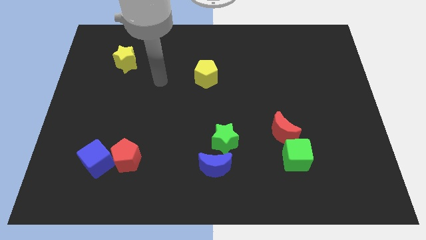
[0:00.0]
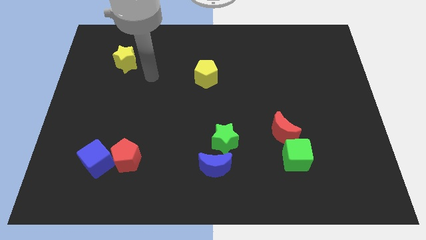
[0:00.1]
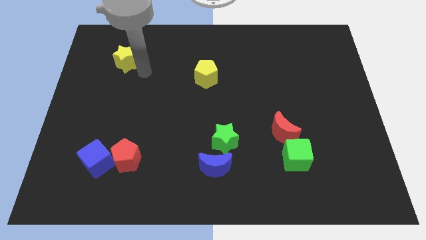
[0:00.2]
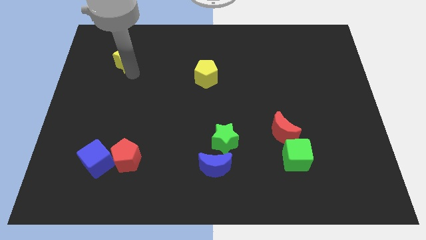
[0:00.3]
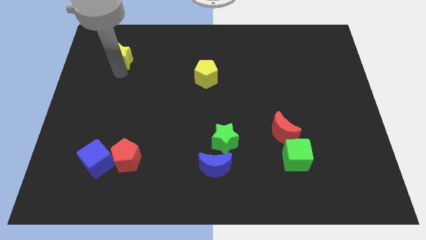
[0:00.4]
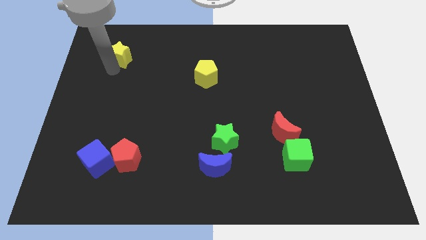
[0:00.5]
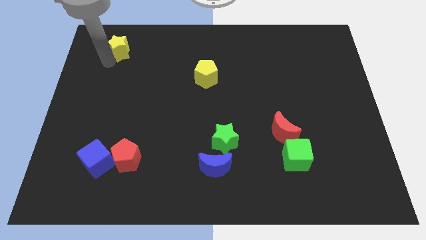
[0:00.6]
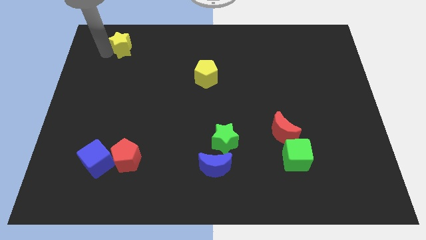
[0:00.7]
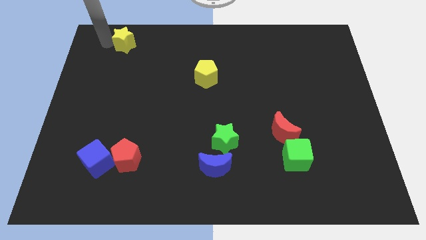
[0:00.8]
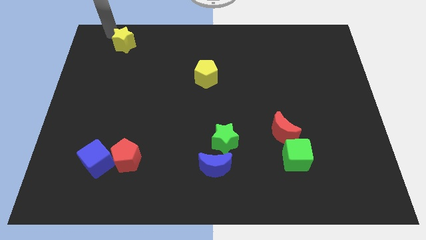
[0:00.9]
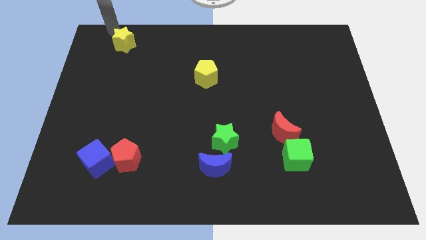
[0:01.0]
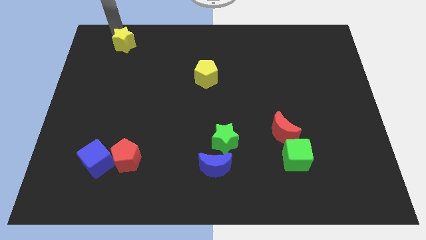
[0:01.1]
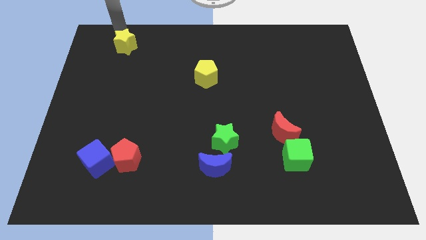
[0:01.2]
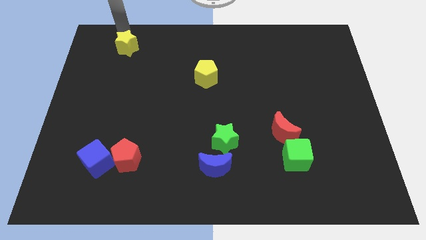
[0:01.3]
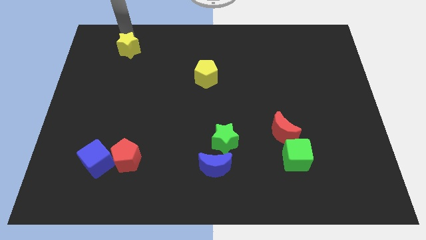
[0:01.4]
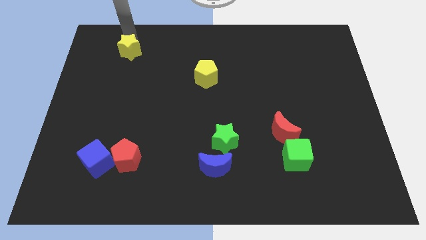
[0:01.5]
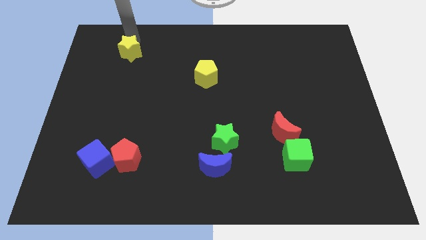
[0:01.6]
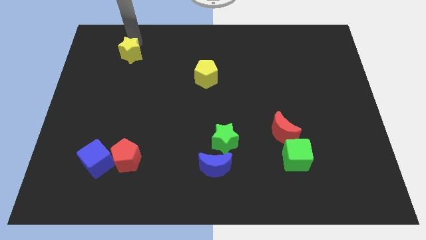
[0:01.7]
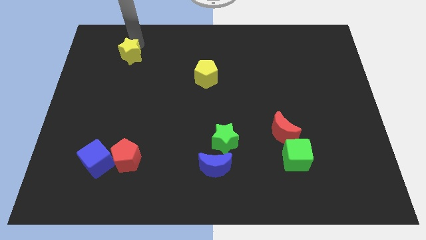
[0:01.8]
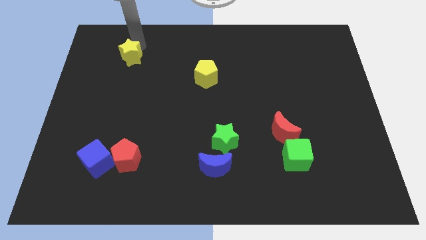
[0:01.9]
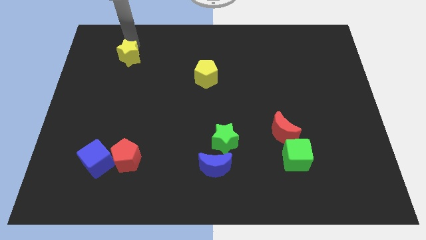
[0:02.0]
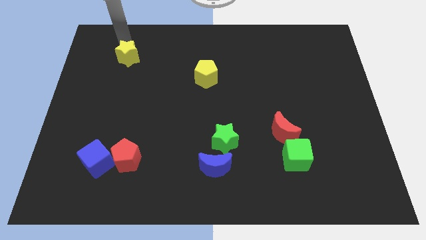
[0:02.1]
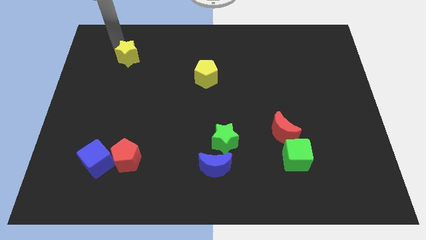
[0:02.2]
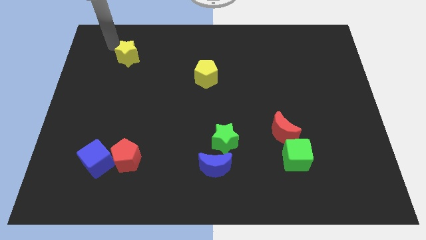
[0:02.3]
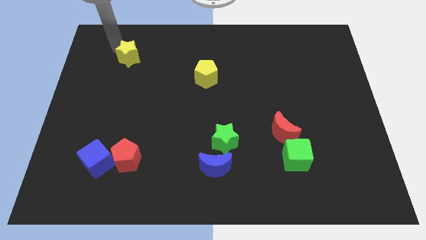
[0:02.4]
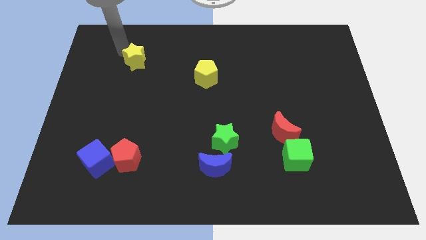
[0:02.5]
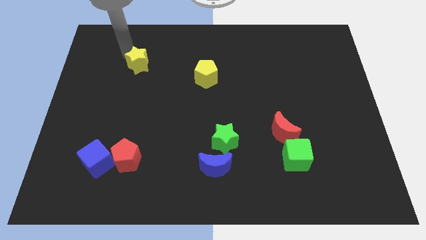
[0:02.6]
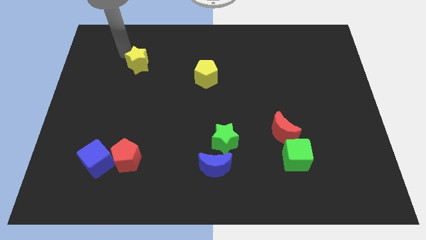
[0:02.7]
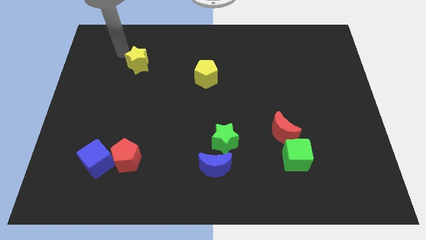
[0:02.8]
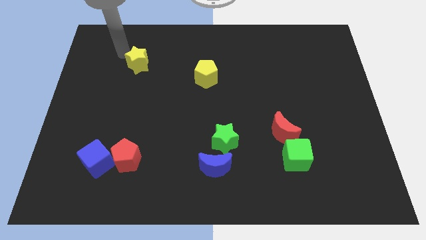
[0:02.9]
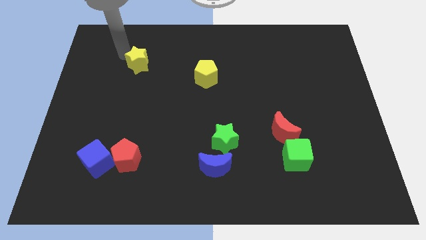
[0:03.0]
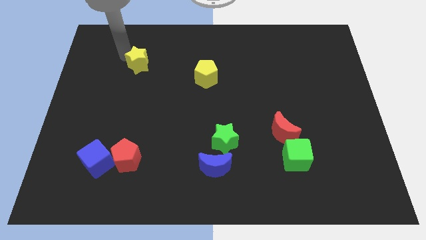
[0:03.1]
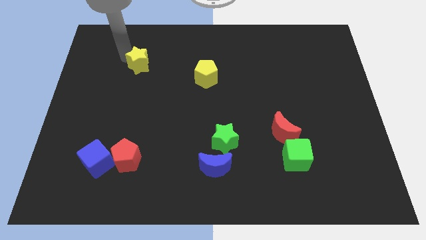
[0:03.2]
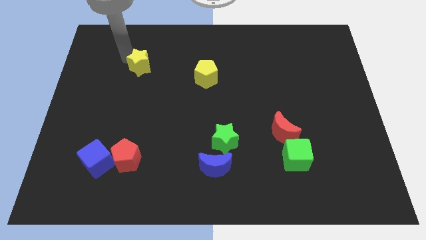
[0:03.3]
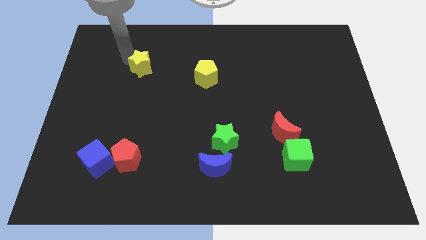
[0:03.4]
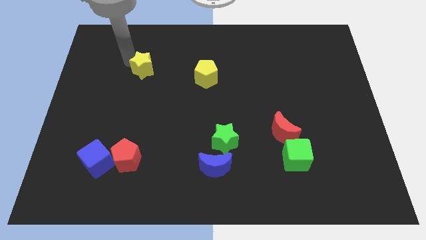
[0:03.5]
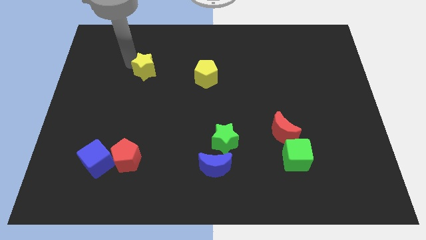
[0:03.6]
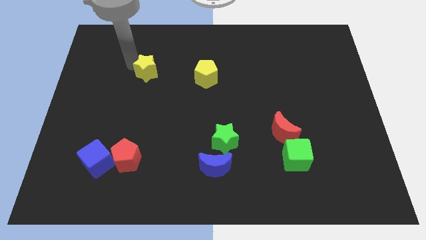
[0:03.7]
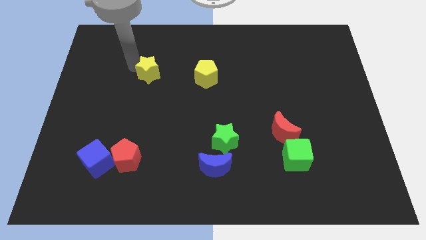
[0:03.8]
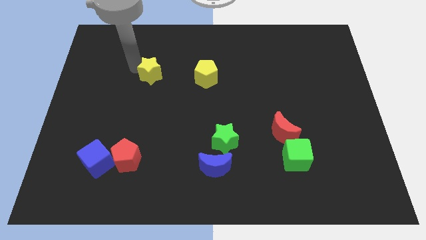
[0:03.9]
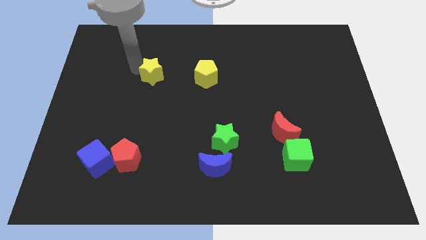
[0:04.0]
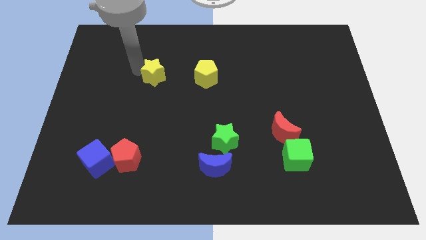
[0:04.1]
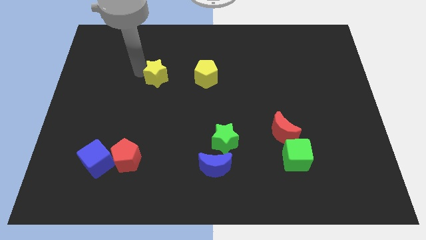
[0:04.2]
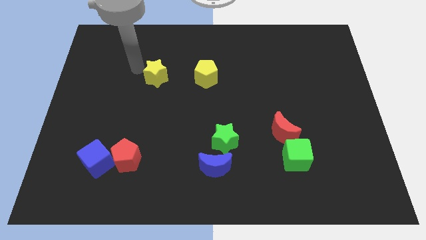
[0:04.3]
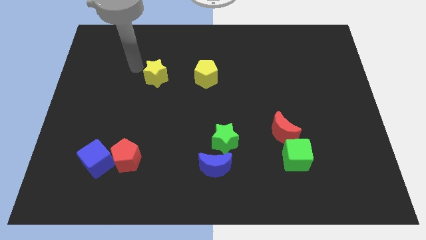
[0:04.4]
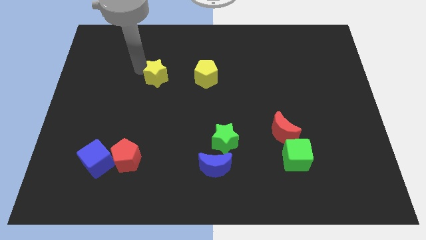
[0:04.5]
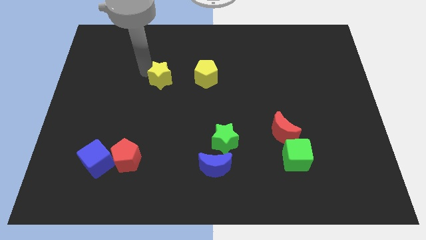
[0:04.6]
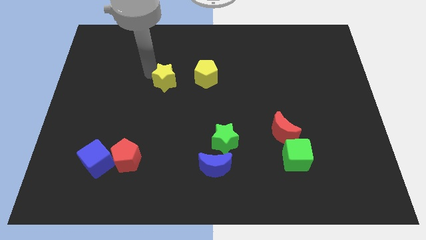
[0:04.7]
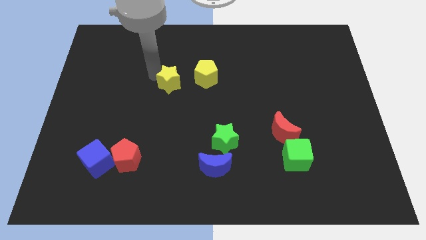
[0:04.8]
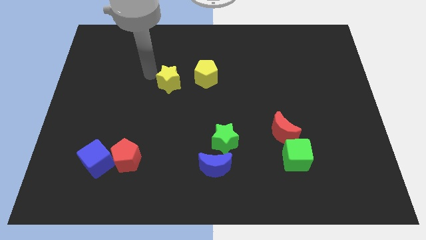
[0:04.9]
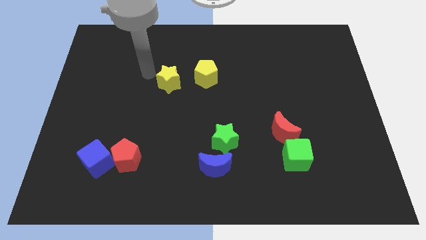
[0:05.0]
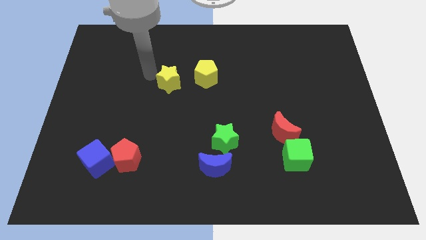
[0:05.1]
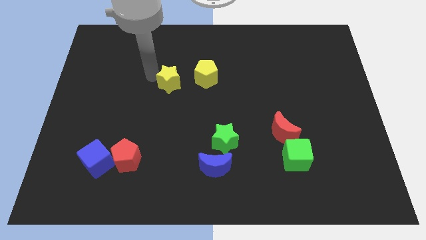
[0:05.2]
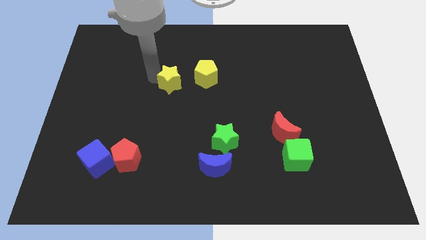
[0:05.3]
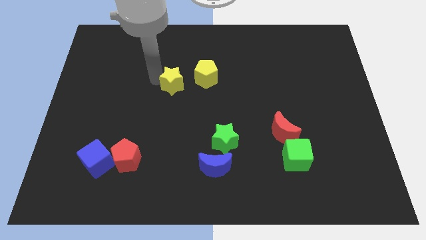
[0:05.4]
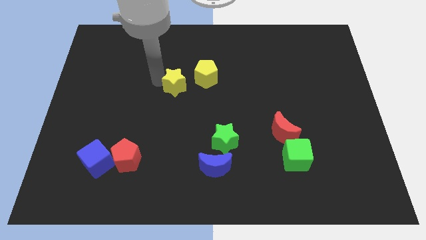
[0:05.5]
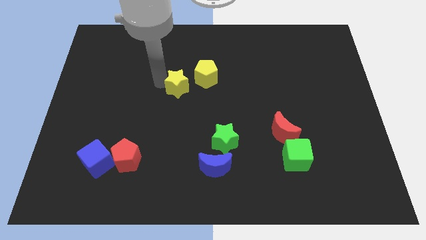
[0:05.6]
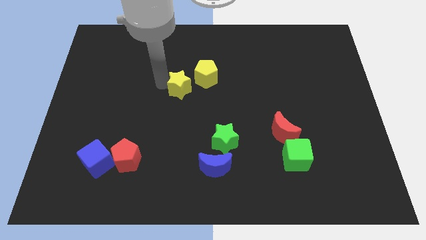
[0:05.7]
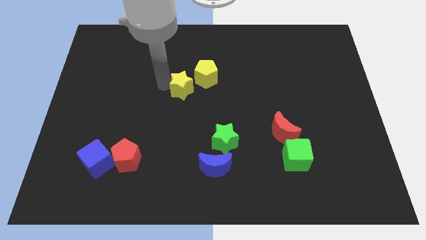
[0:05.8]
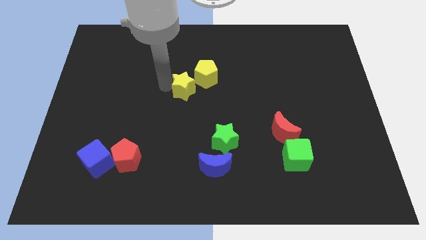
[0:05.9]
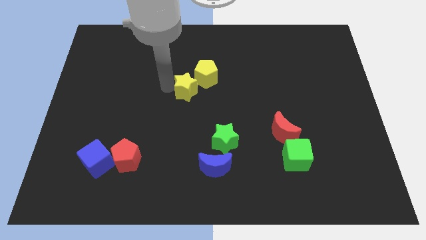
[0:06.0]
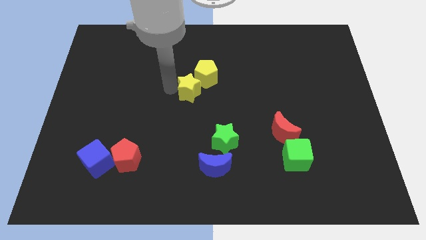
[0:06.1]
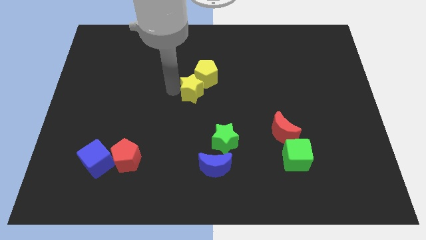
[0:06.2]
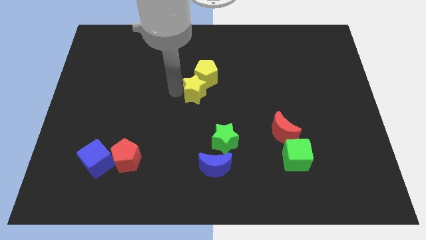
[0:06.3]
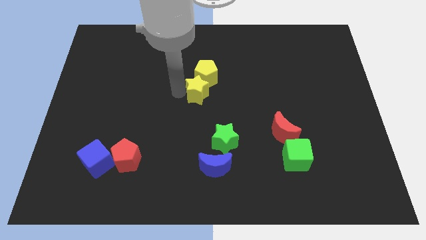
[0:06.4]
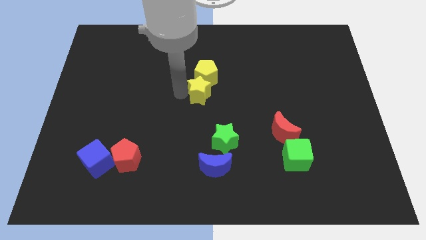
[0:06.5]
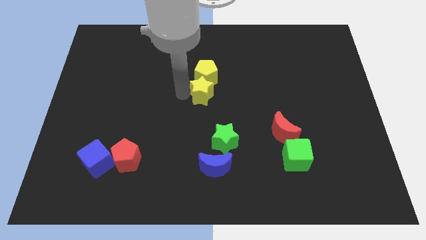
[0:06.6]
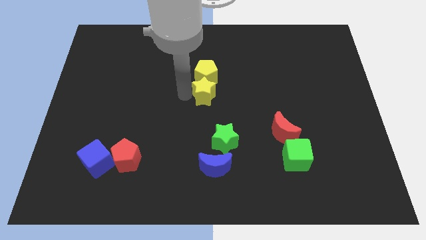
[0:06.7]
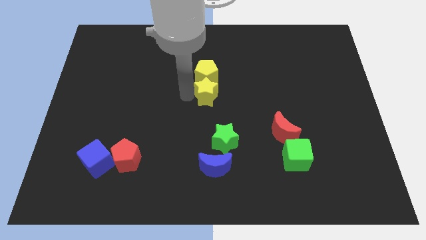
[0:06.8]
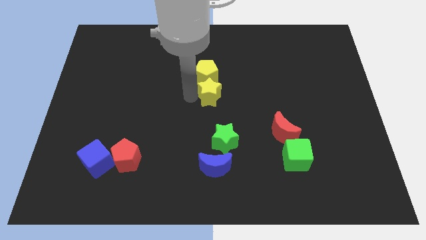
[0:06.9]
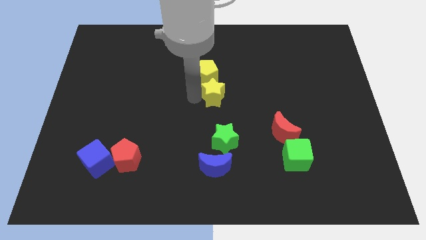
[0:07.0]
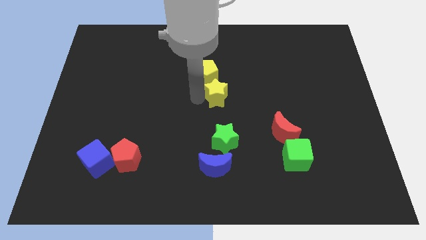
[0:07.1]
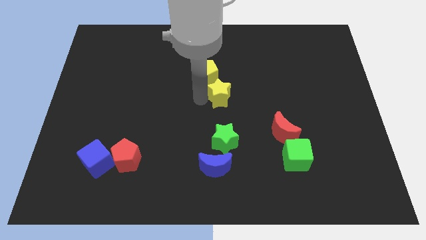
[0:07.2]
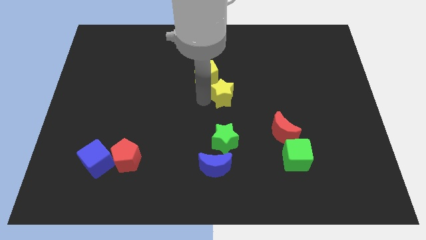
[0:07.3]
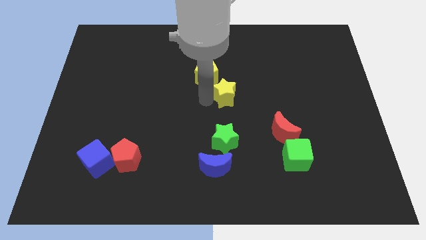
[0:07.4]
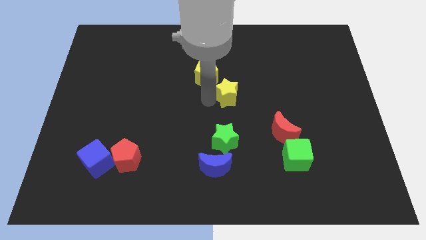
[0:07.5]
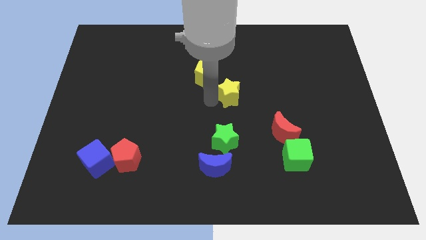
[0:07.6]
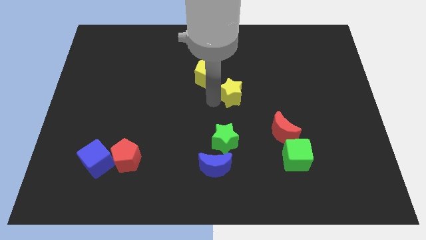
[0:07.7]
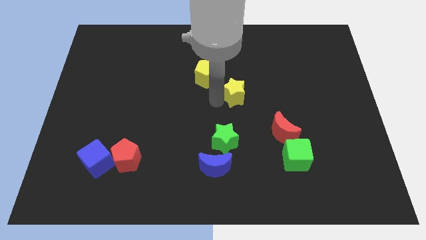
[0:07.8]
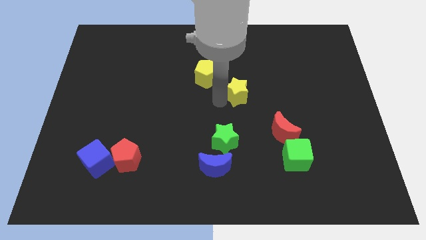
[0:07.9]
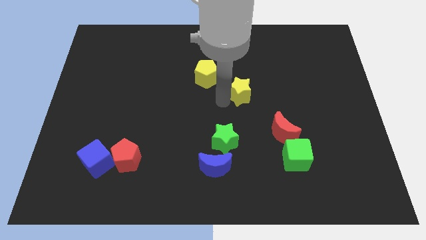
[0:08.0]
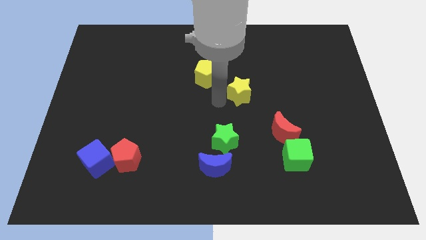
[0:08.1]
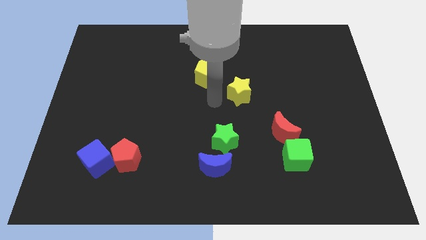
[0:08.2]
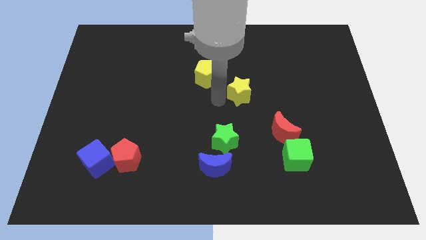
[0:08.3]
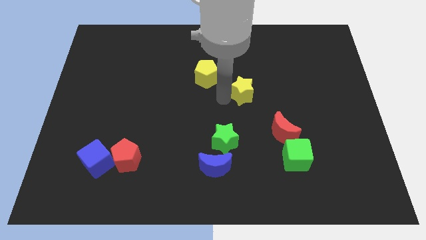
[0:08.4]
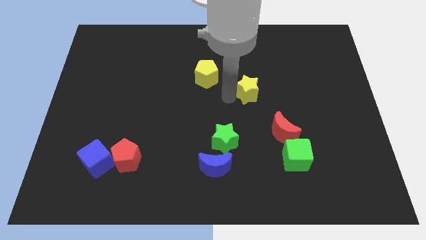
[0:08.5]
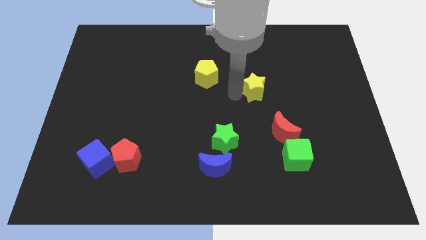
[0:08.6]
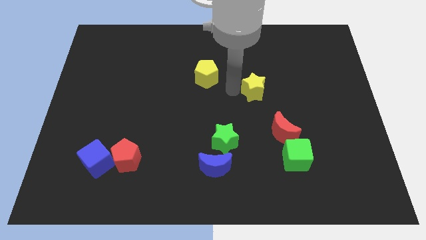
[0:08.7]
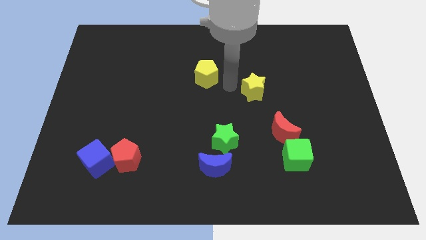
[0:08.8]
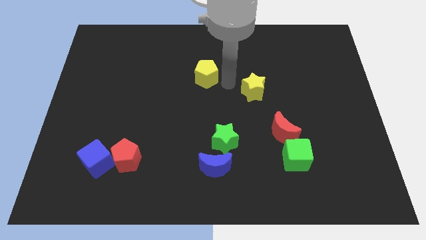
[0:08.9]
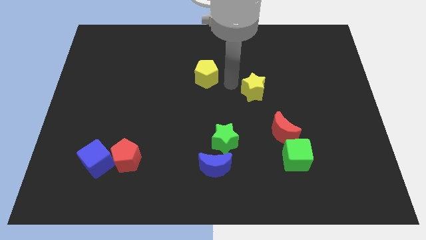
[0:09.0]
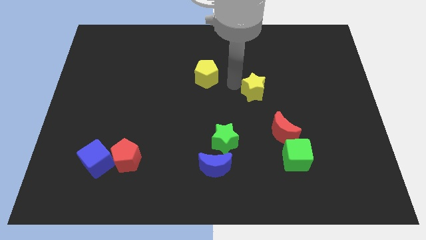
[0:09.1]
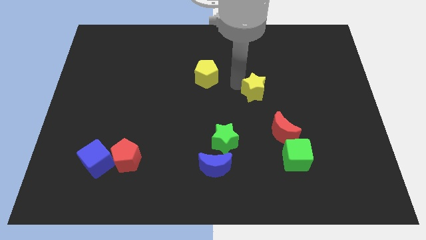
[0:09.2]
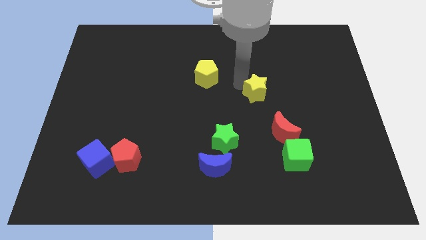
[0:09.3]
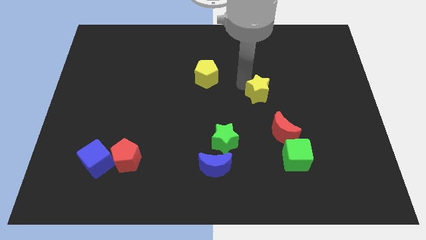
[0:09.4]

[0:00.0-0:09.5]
push the yellow star above the red moon
